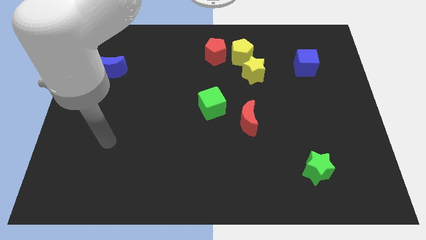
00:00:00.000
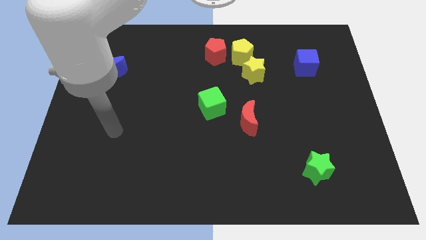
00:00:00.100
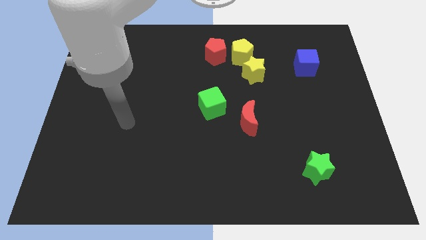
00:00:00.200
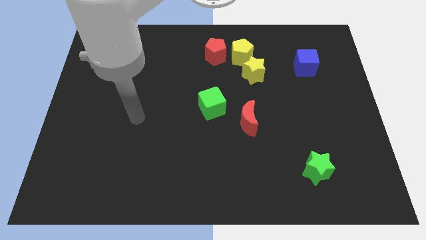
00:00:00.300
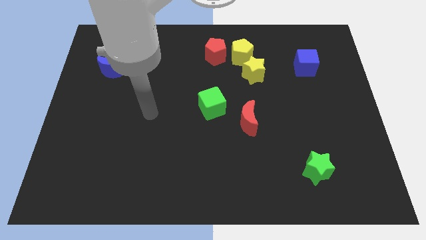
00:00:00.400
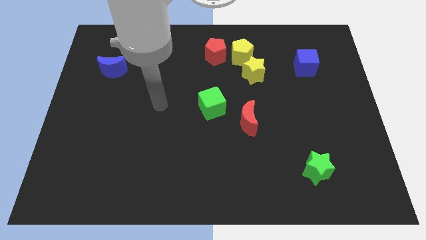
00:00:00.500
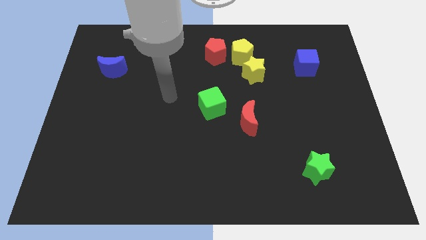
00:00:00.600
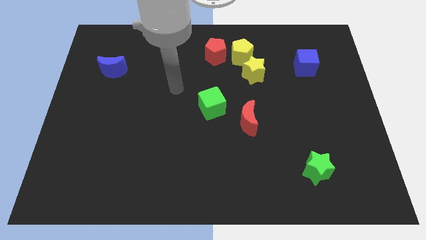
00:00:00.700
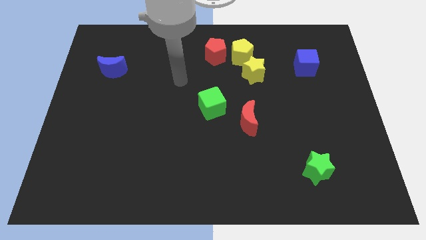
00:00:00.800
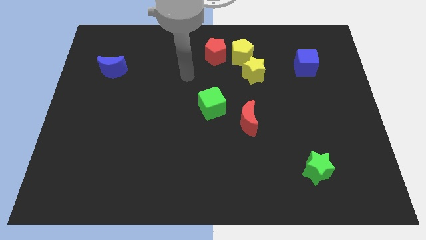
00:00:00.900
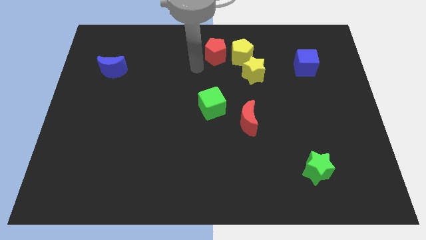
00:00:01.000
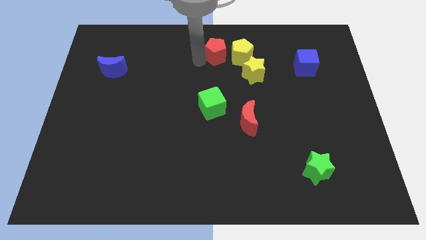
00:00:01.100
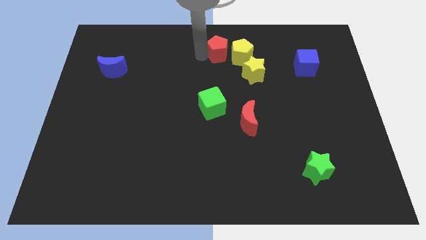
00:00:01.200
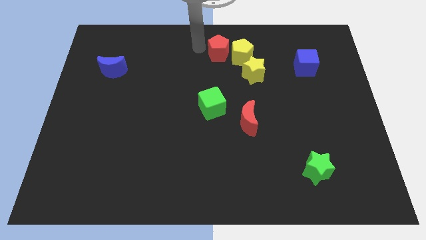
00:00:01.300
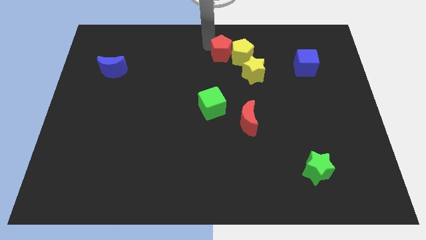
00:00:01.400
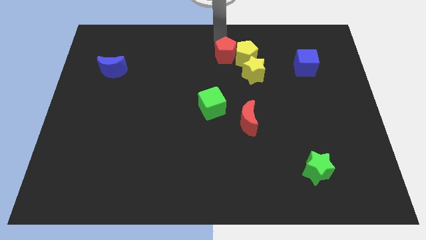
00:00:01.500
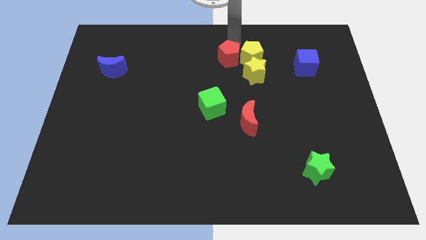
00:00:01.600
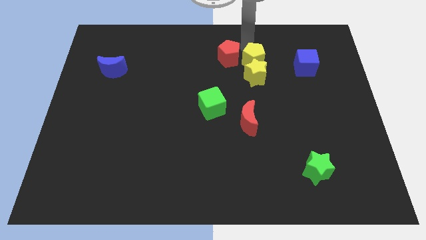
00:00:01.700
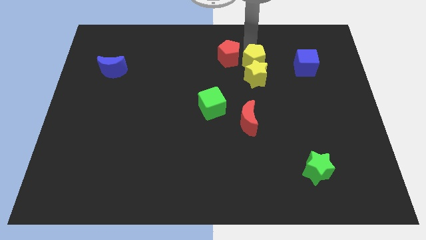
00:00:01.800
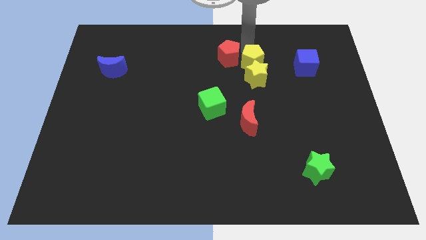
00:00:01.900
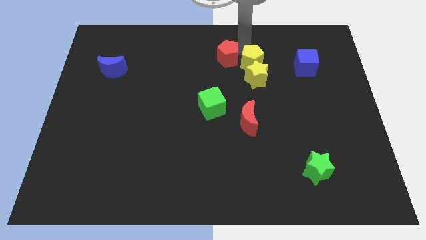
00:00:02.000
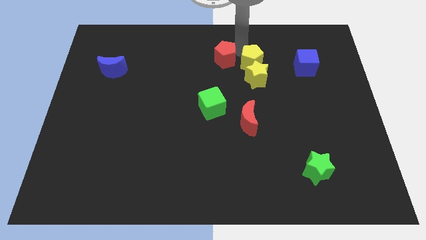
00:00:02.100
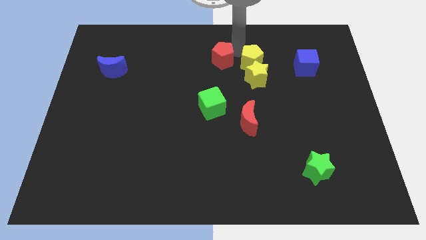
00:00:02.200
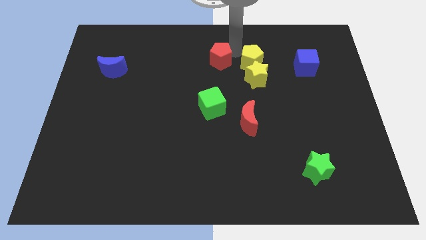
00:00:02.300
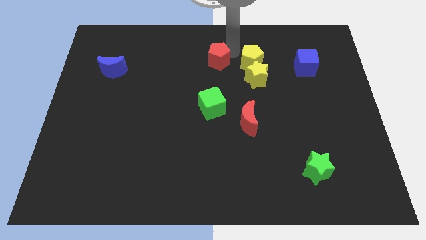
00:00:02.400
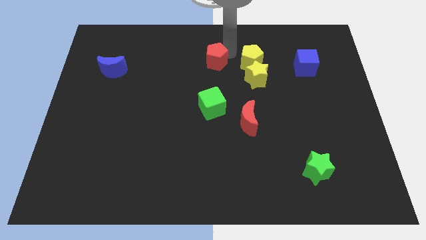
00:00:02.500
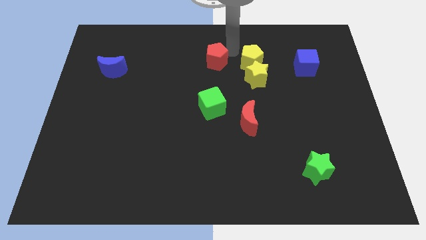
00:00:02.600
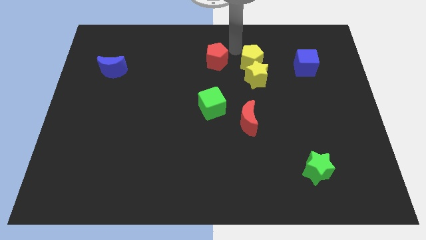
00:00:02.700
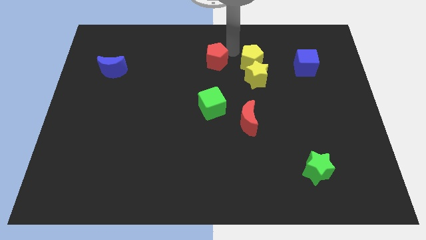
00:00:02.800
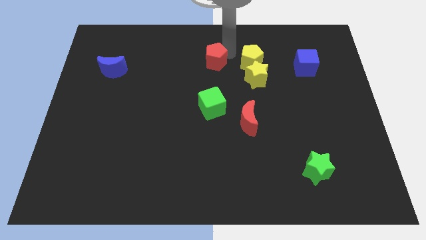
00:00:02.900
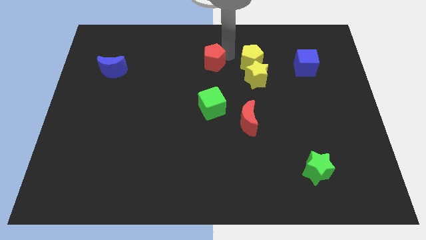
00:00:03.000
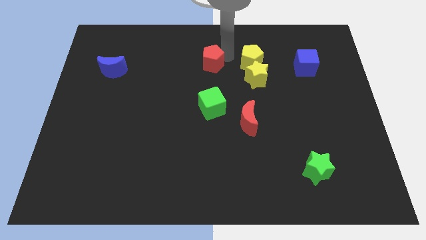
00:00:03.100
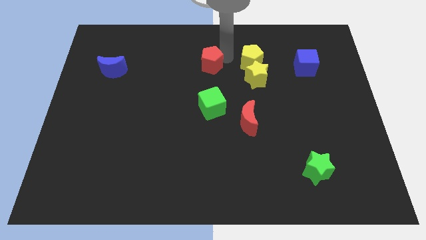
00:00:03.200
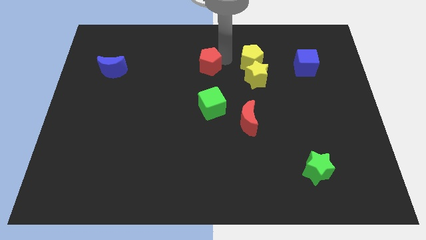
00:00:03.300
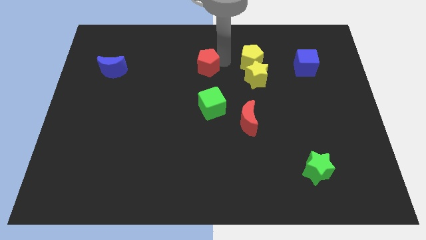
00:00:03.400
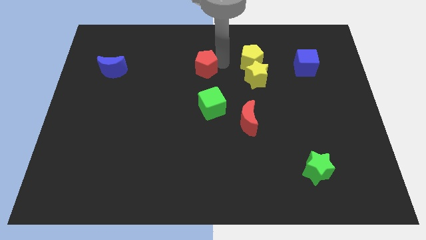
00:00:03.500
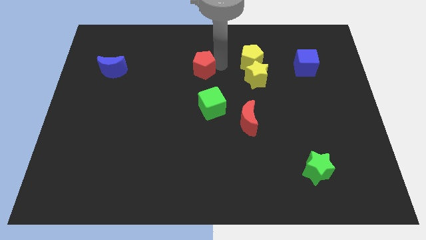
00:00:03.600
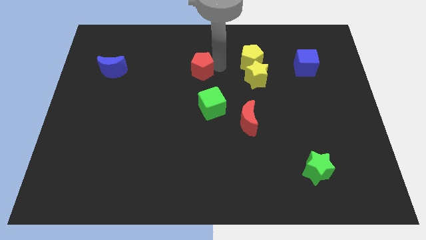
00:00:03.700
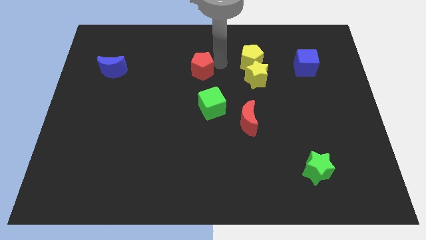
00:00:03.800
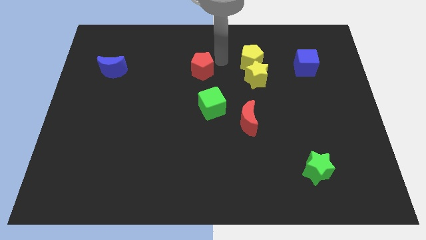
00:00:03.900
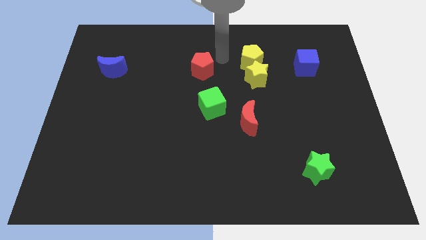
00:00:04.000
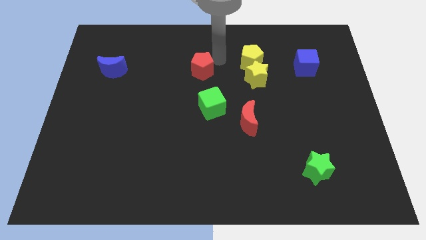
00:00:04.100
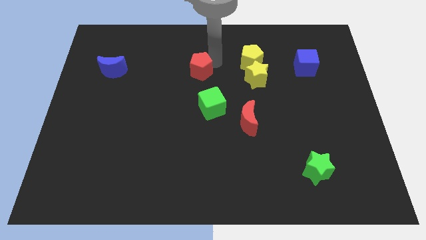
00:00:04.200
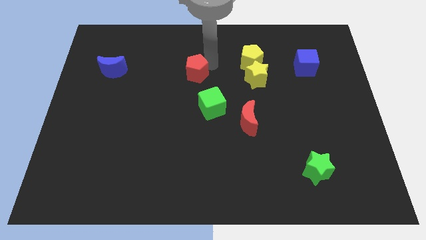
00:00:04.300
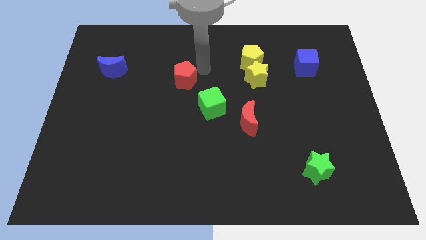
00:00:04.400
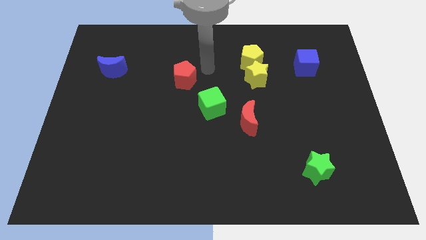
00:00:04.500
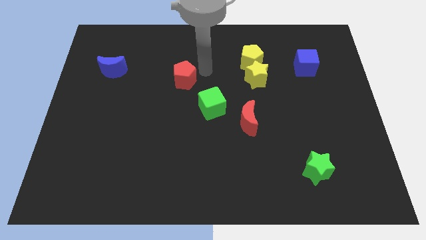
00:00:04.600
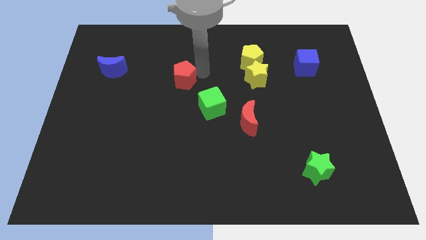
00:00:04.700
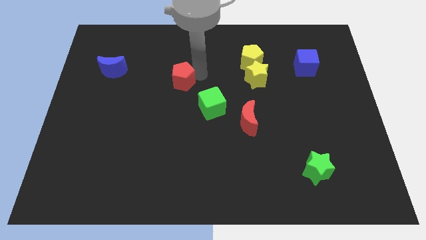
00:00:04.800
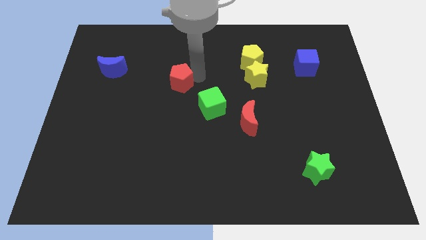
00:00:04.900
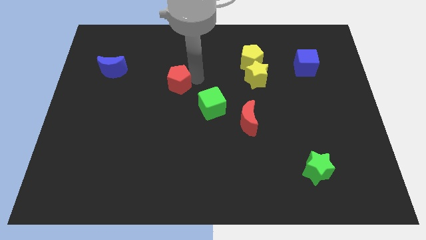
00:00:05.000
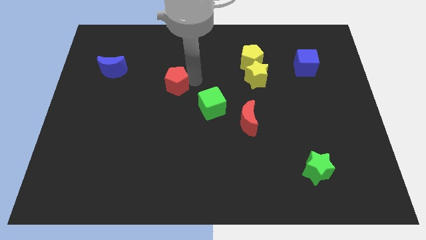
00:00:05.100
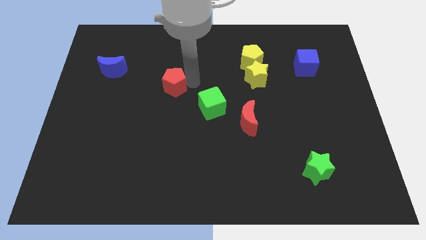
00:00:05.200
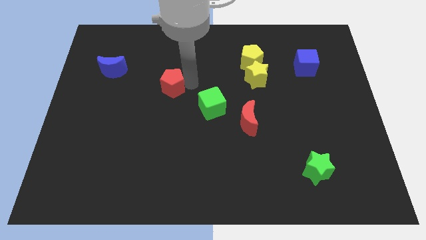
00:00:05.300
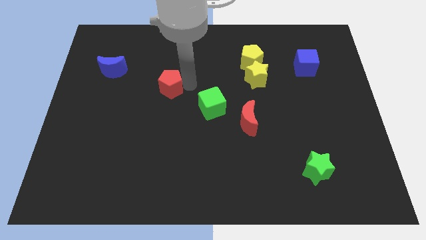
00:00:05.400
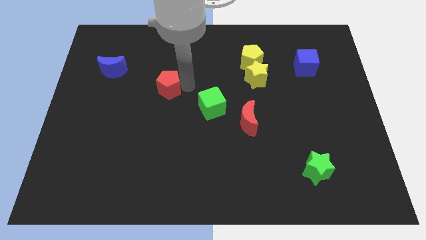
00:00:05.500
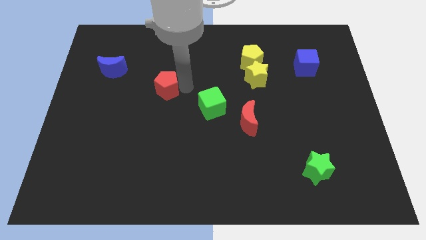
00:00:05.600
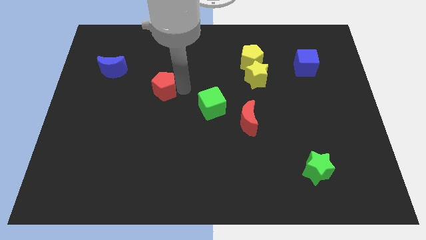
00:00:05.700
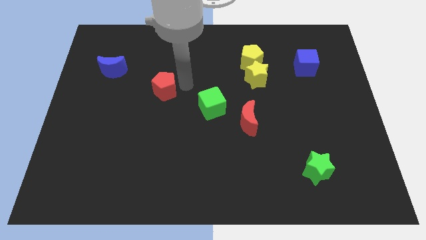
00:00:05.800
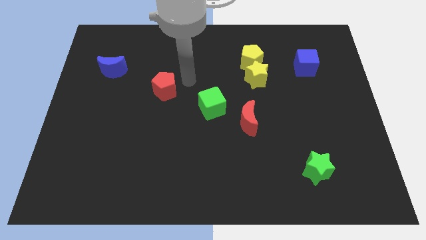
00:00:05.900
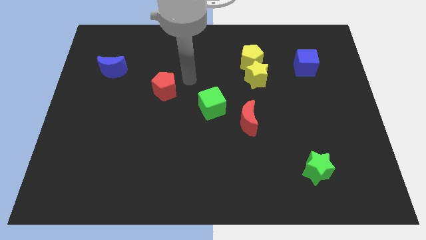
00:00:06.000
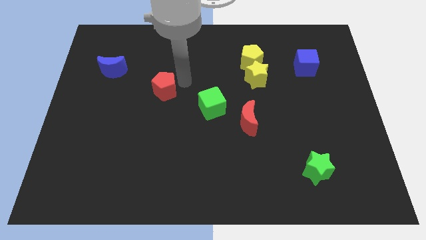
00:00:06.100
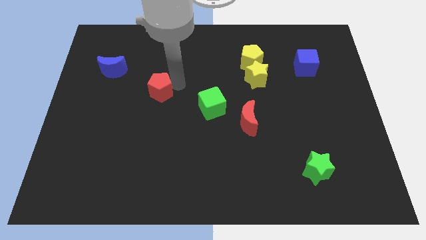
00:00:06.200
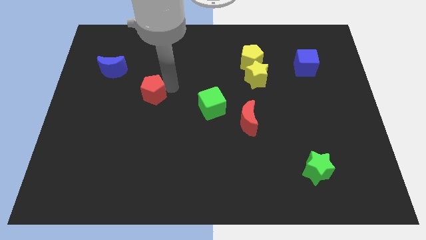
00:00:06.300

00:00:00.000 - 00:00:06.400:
push the red pentagon downwards and to the left diagonally

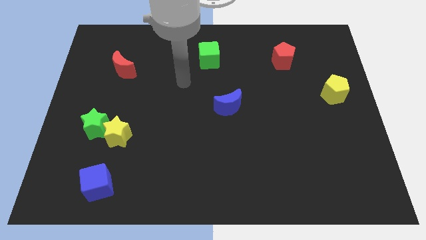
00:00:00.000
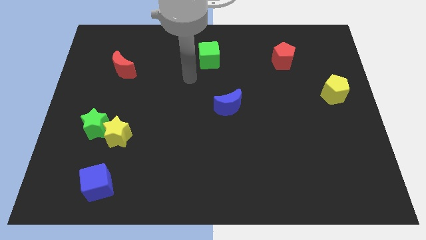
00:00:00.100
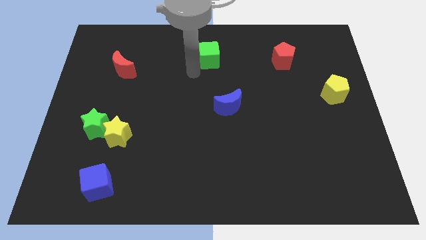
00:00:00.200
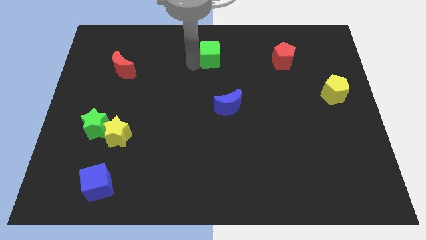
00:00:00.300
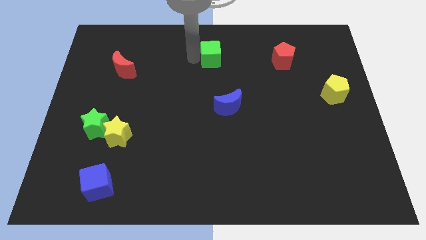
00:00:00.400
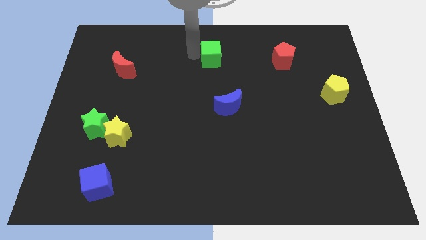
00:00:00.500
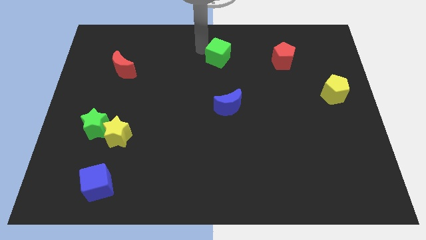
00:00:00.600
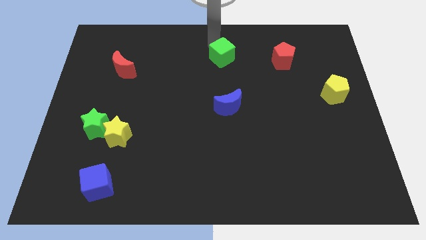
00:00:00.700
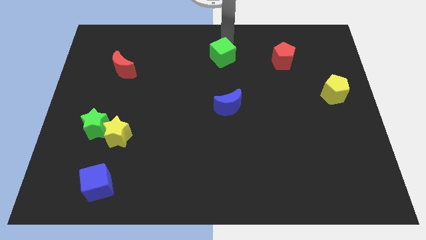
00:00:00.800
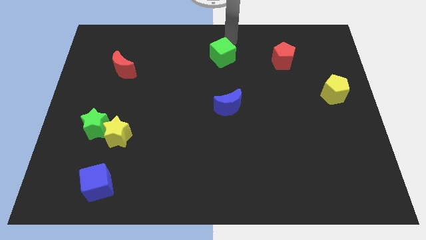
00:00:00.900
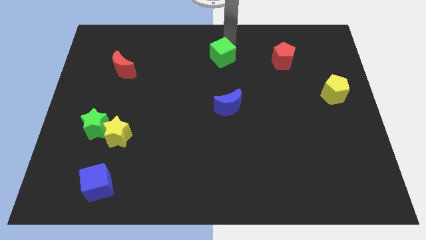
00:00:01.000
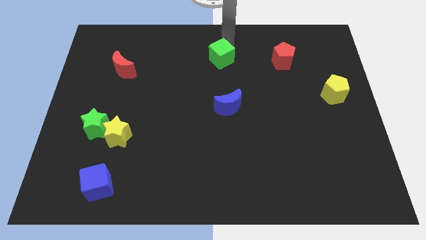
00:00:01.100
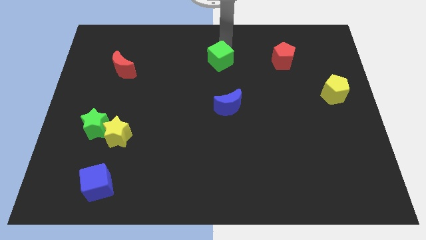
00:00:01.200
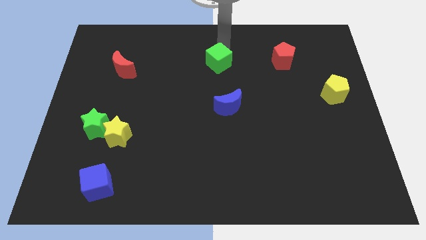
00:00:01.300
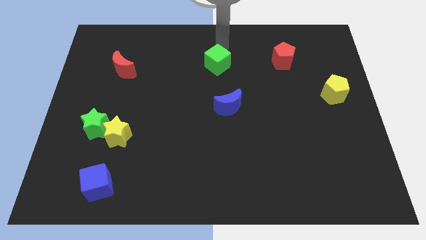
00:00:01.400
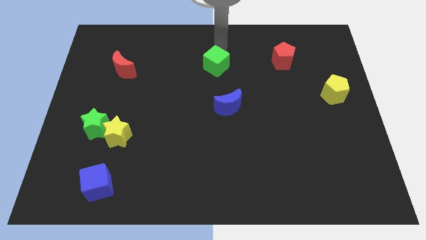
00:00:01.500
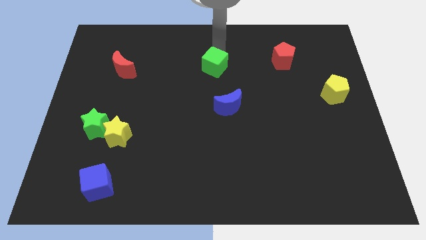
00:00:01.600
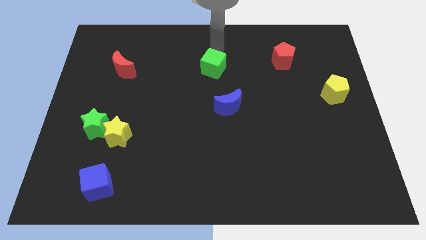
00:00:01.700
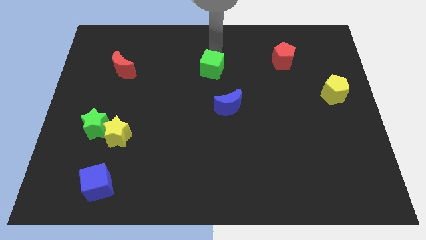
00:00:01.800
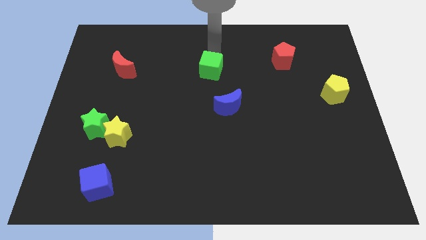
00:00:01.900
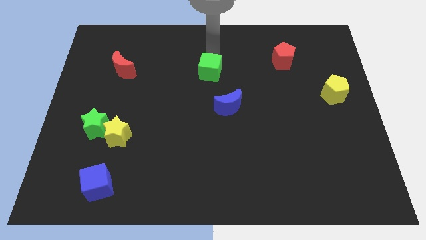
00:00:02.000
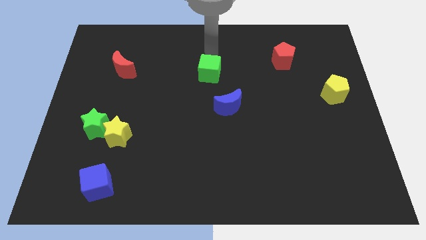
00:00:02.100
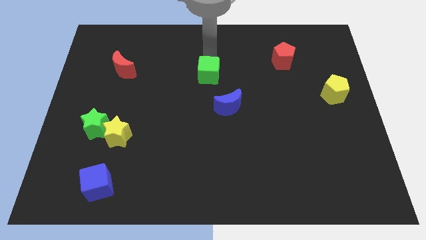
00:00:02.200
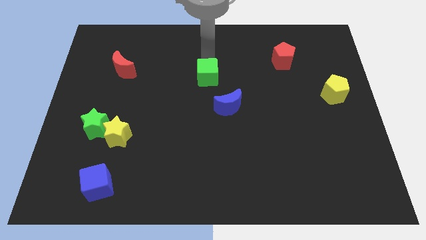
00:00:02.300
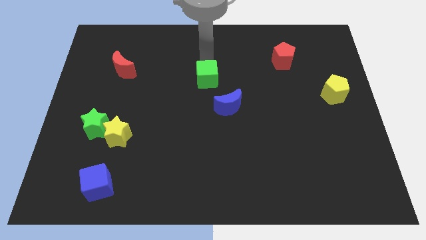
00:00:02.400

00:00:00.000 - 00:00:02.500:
move the green cube slightly down
